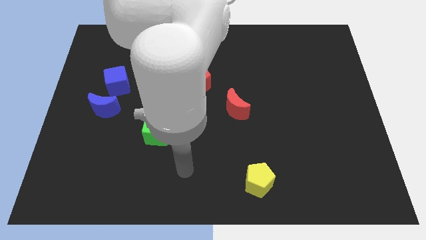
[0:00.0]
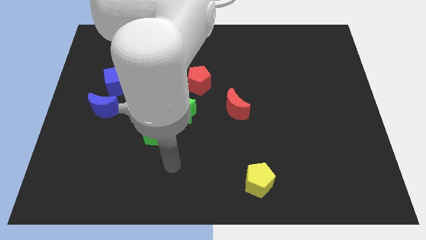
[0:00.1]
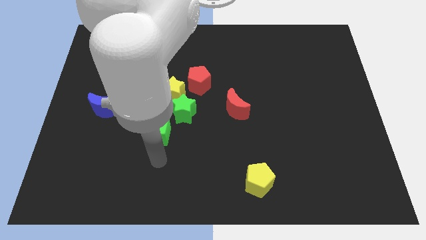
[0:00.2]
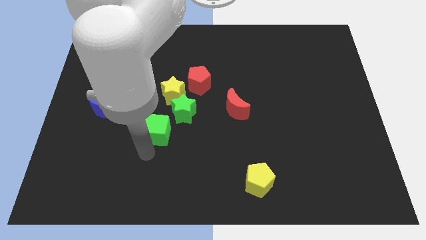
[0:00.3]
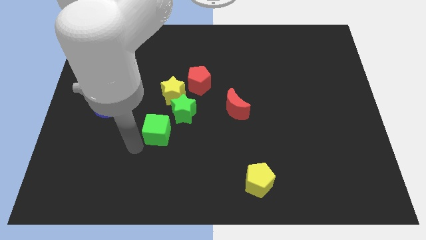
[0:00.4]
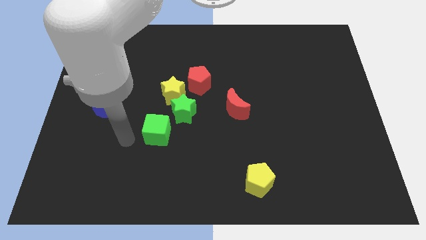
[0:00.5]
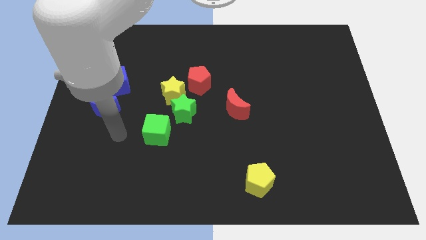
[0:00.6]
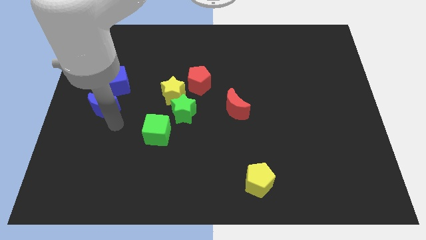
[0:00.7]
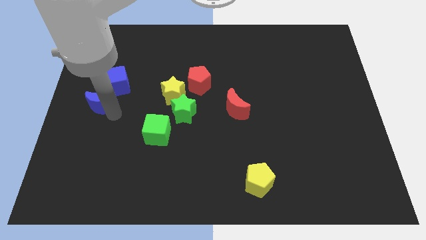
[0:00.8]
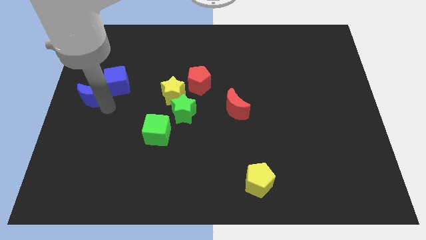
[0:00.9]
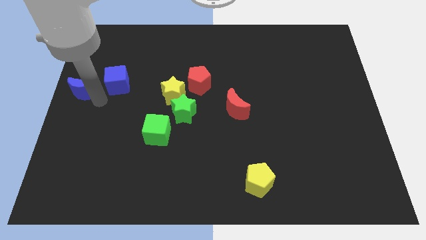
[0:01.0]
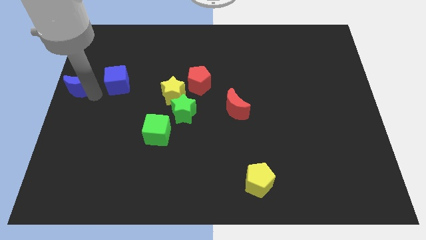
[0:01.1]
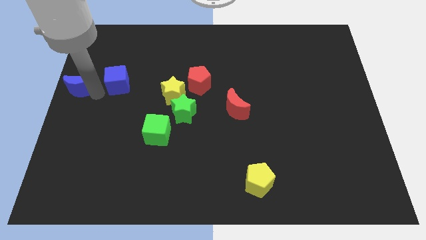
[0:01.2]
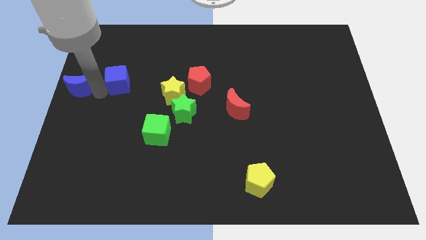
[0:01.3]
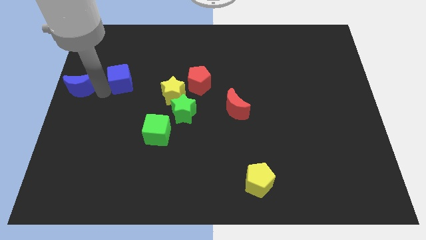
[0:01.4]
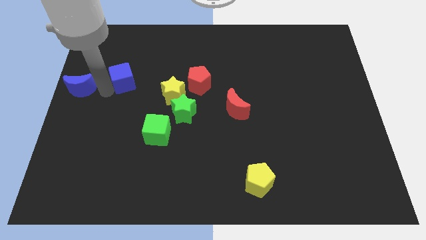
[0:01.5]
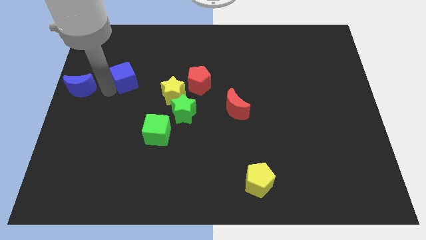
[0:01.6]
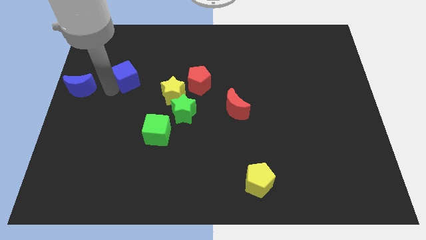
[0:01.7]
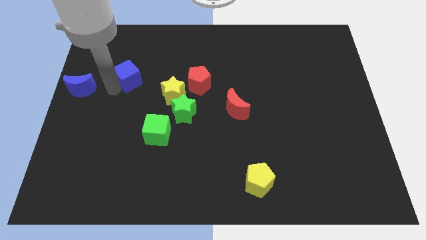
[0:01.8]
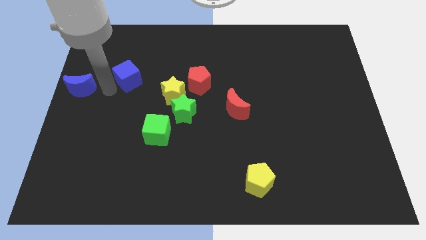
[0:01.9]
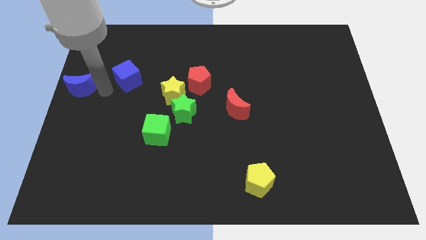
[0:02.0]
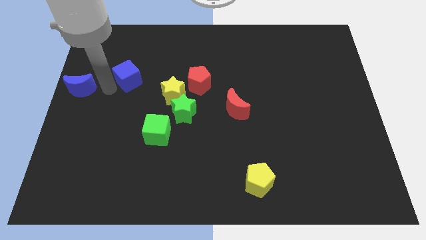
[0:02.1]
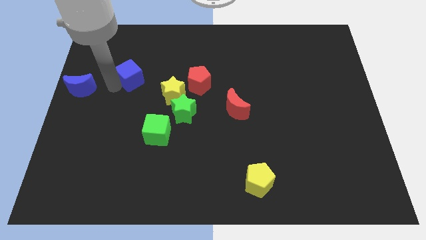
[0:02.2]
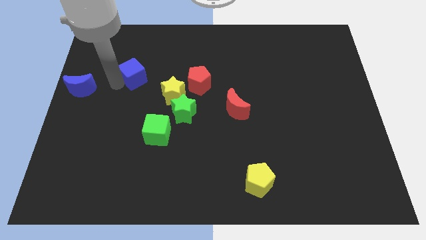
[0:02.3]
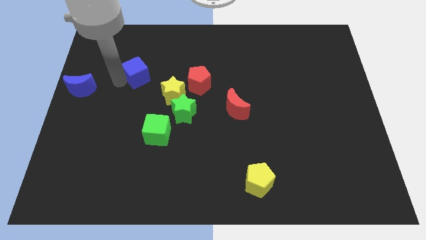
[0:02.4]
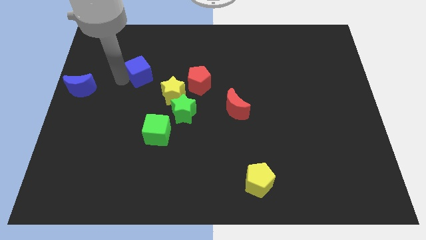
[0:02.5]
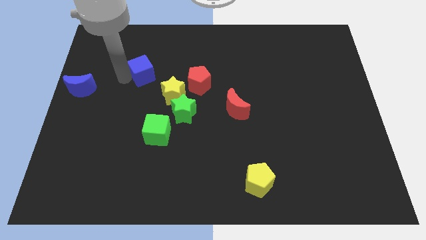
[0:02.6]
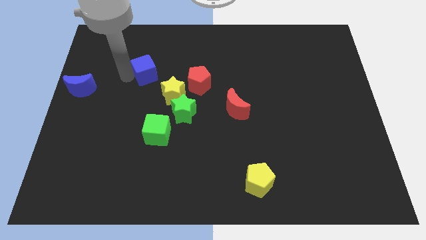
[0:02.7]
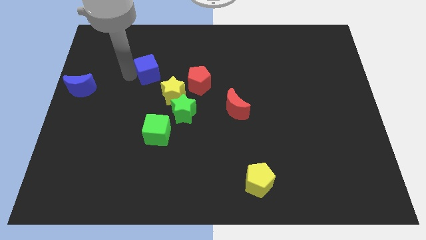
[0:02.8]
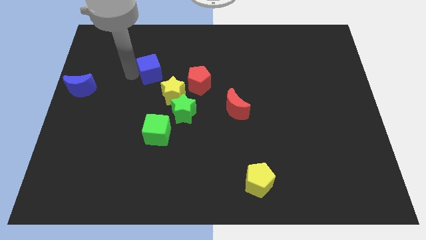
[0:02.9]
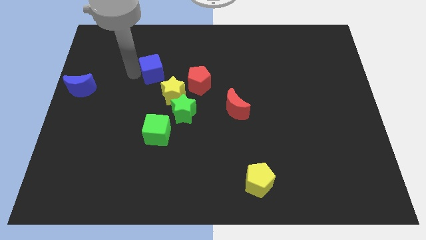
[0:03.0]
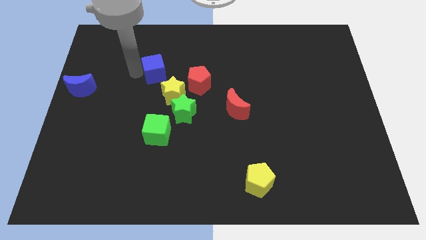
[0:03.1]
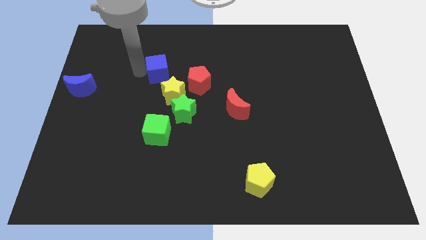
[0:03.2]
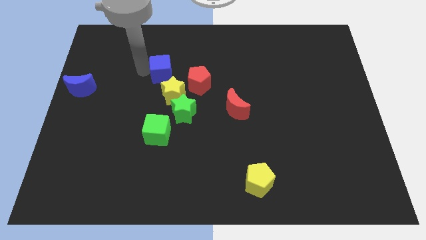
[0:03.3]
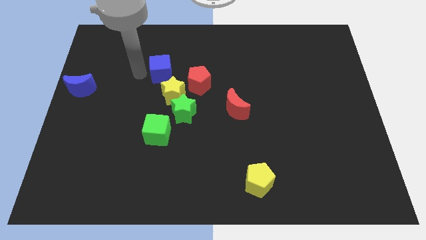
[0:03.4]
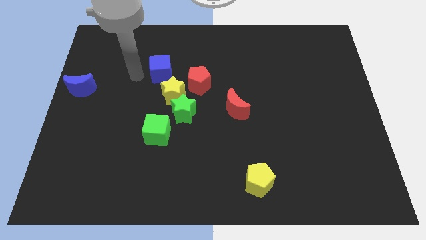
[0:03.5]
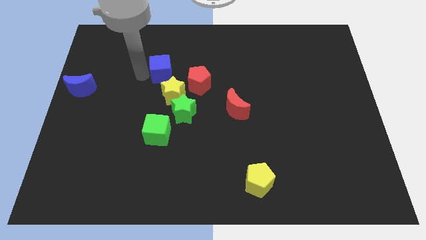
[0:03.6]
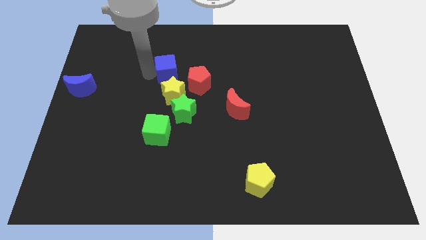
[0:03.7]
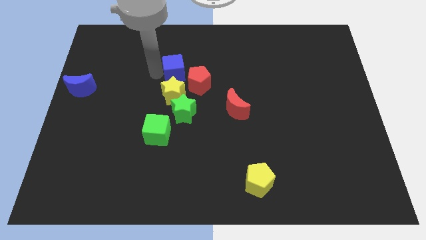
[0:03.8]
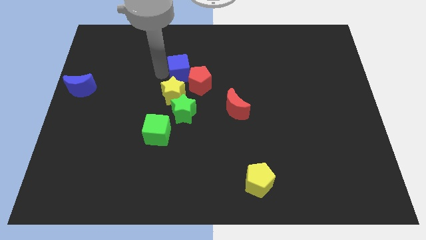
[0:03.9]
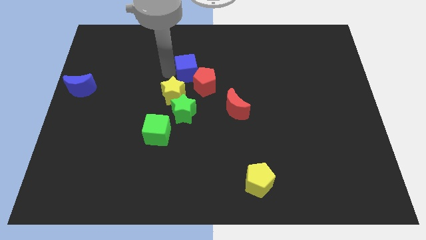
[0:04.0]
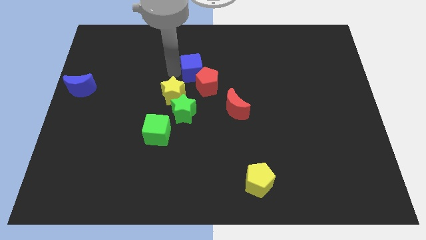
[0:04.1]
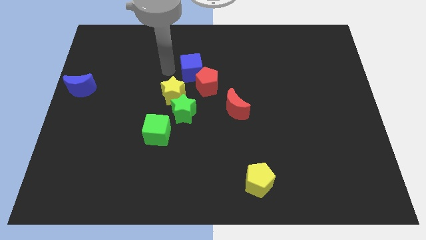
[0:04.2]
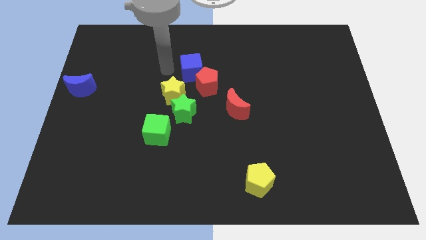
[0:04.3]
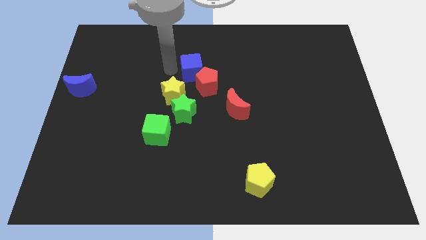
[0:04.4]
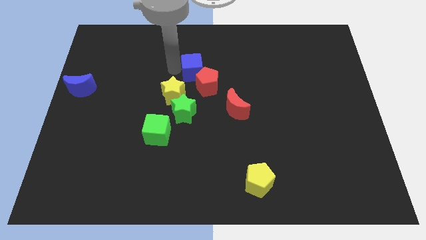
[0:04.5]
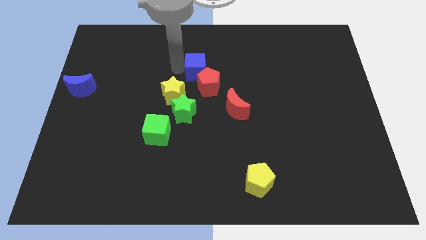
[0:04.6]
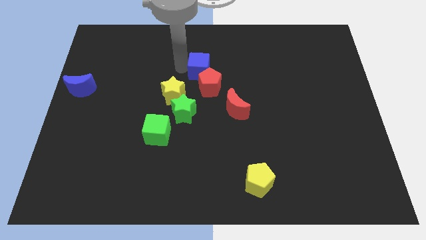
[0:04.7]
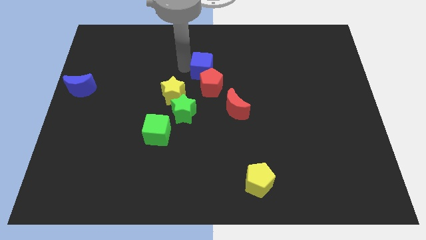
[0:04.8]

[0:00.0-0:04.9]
slide the blue cube right

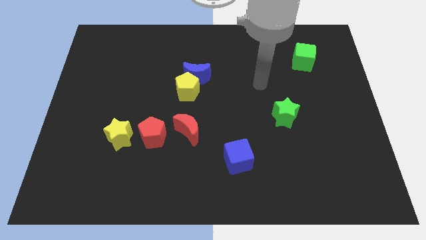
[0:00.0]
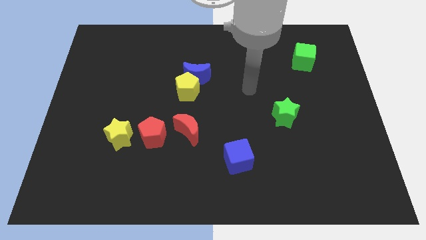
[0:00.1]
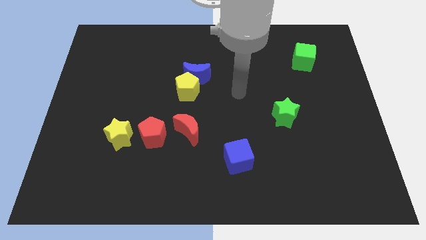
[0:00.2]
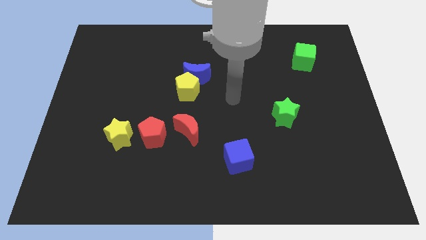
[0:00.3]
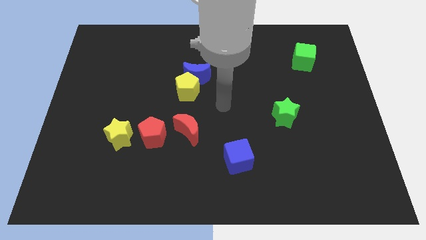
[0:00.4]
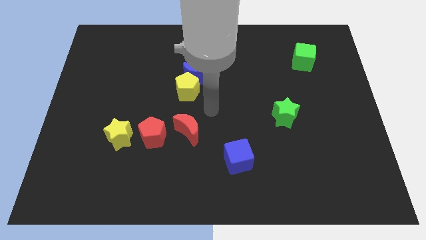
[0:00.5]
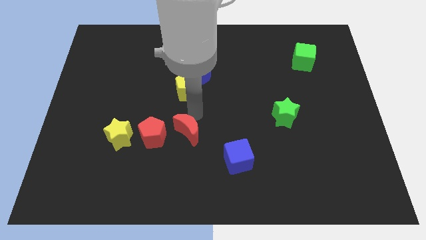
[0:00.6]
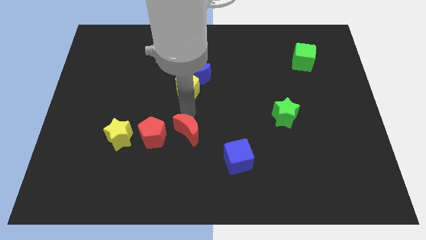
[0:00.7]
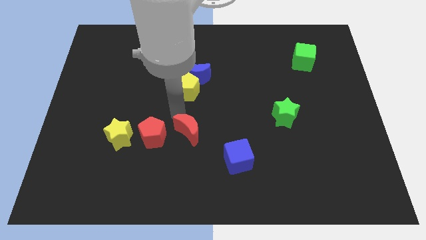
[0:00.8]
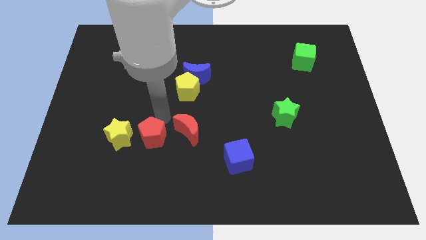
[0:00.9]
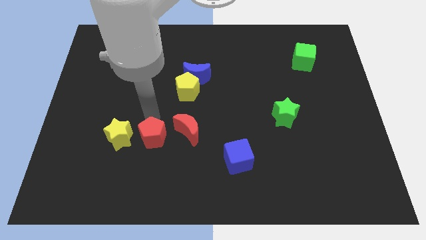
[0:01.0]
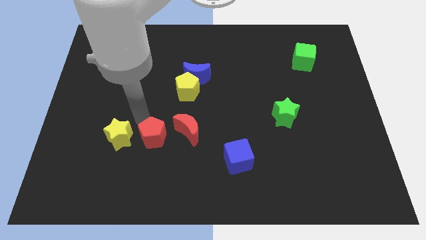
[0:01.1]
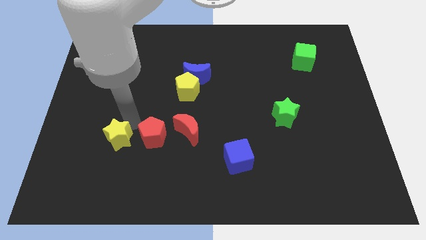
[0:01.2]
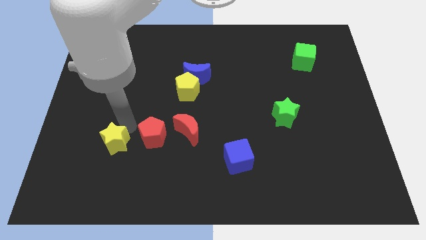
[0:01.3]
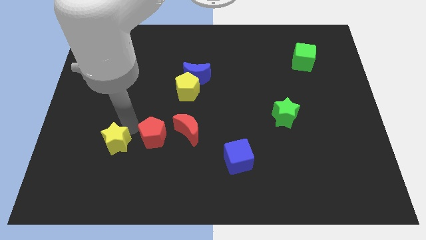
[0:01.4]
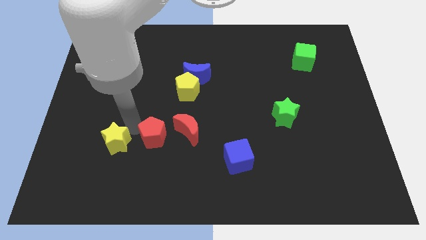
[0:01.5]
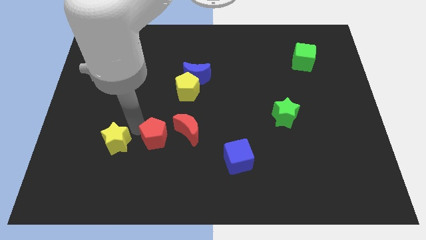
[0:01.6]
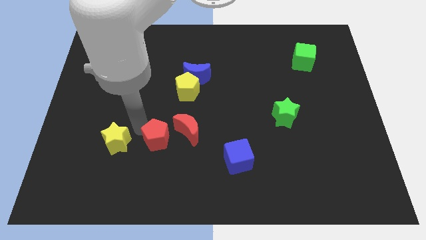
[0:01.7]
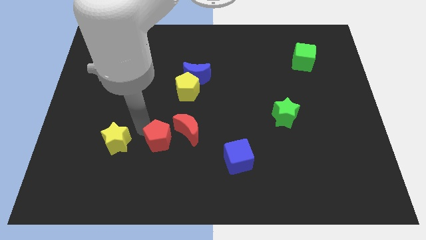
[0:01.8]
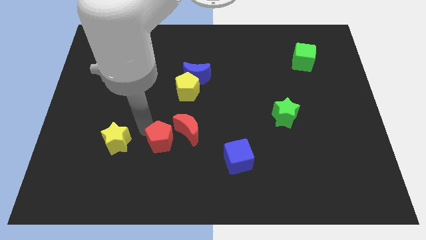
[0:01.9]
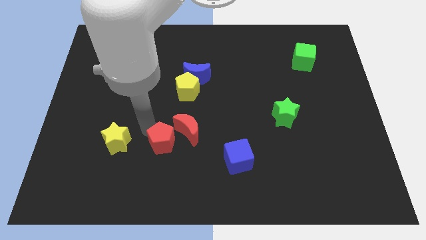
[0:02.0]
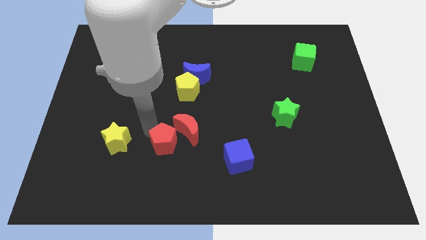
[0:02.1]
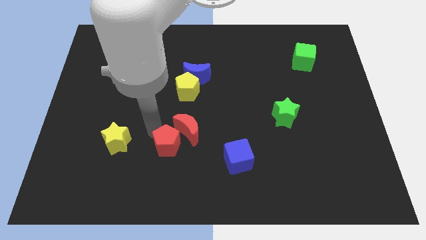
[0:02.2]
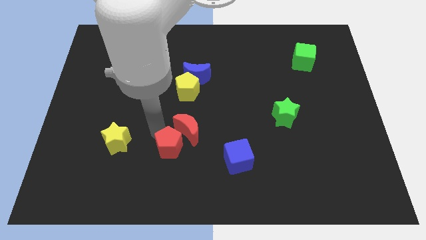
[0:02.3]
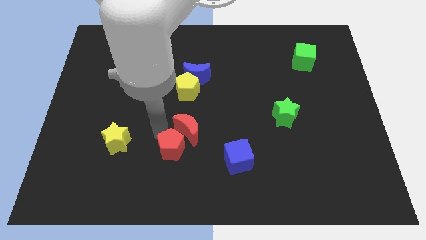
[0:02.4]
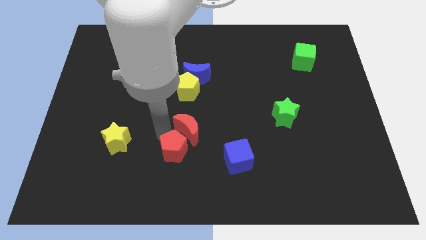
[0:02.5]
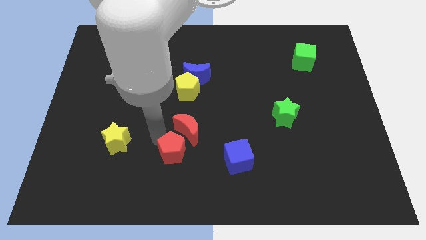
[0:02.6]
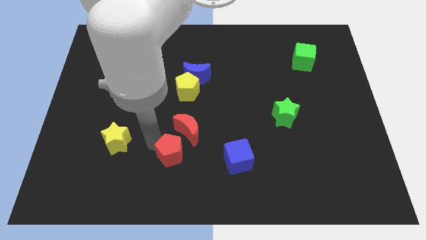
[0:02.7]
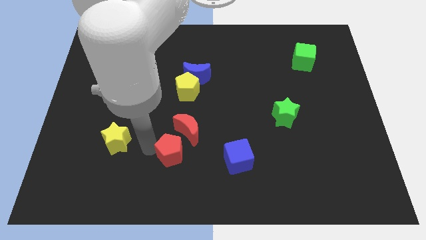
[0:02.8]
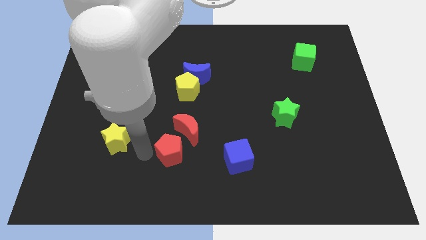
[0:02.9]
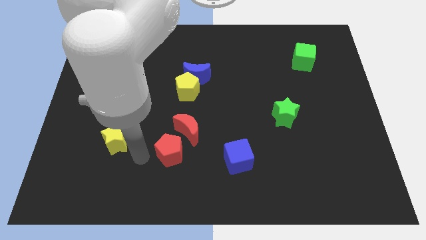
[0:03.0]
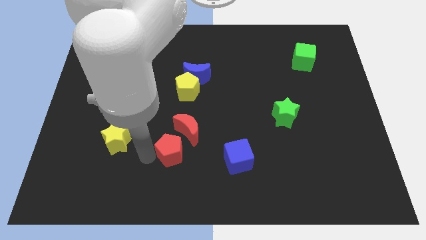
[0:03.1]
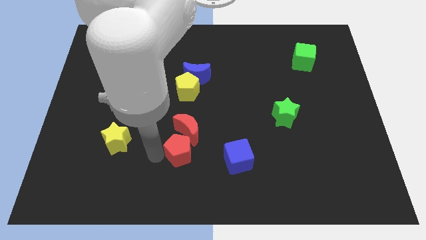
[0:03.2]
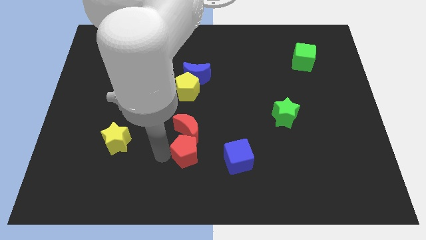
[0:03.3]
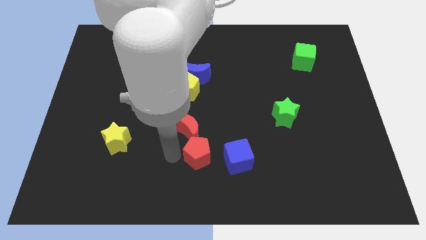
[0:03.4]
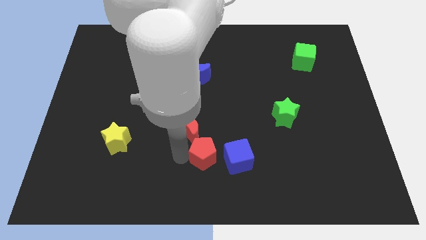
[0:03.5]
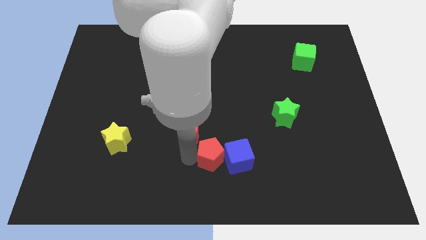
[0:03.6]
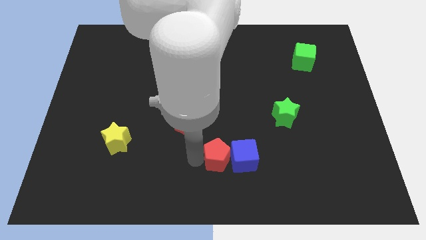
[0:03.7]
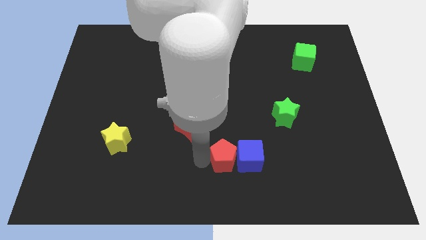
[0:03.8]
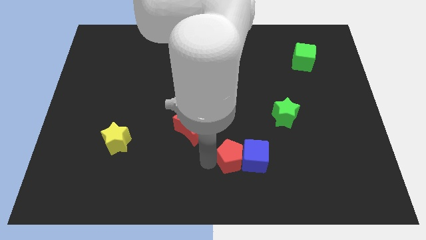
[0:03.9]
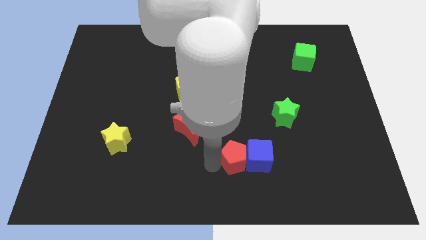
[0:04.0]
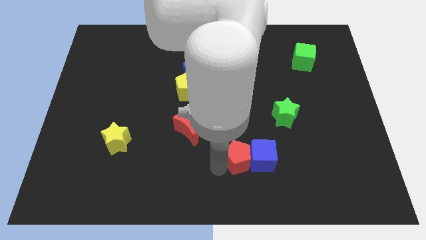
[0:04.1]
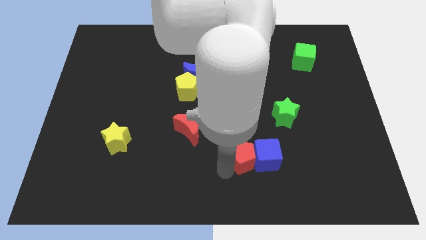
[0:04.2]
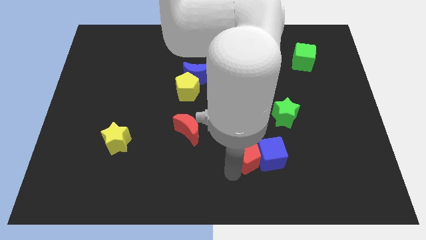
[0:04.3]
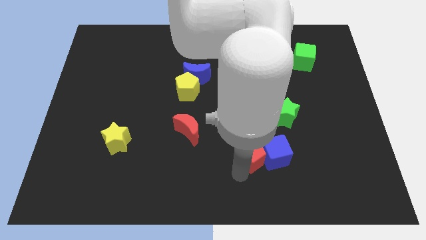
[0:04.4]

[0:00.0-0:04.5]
push the red pentagon right
